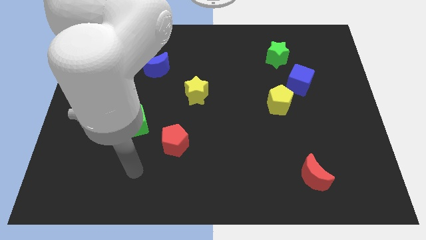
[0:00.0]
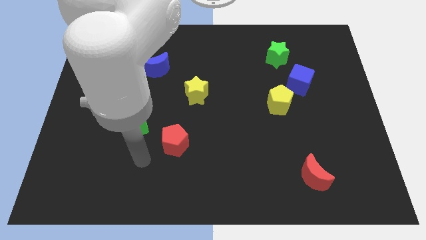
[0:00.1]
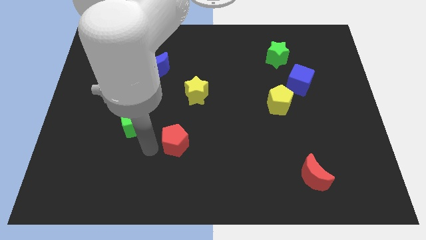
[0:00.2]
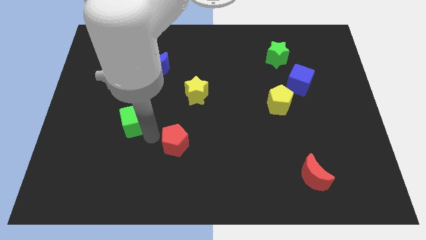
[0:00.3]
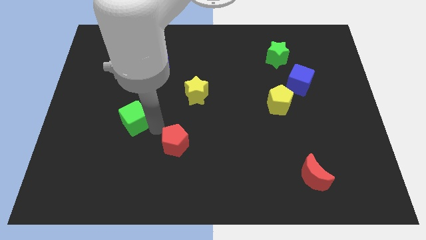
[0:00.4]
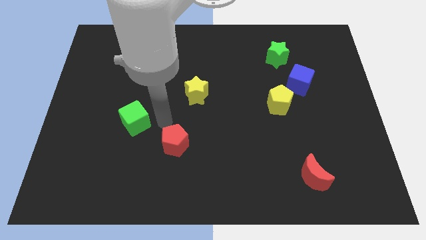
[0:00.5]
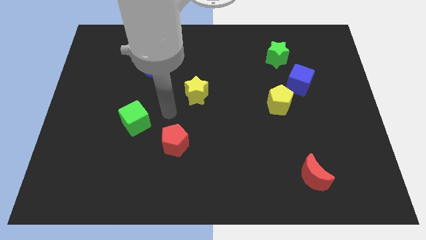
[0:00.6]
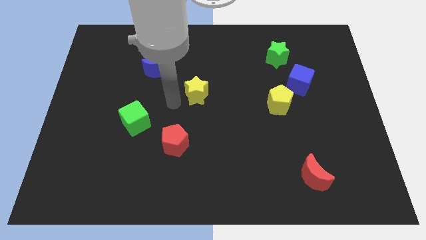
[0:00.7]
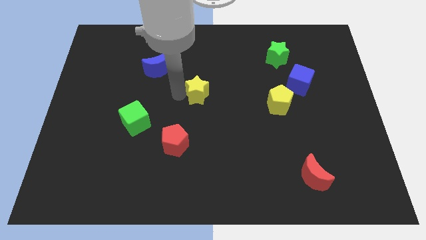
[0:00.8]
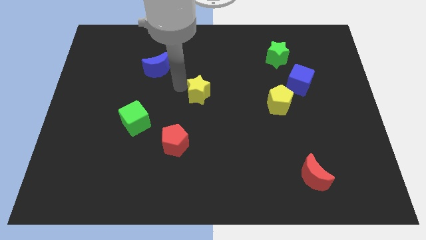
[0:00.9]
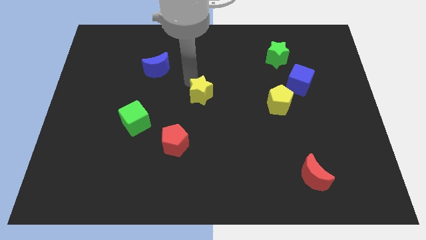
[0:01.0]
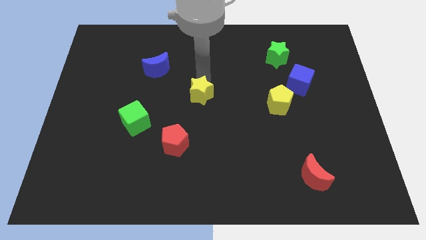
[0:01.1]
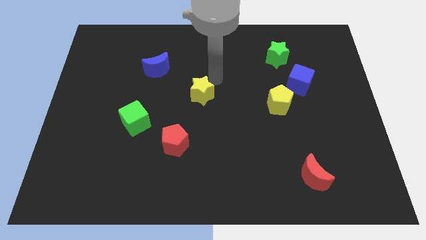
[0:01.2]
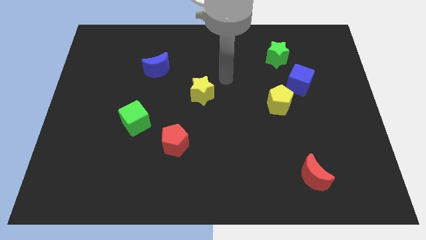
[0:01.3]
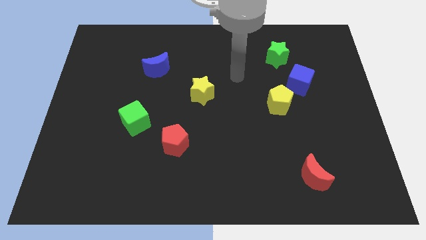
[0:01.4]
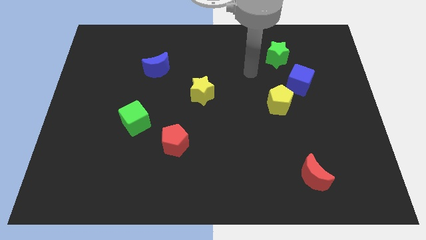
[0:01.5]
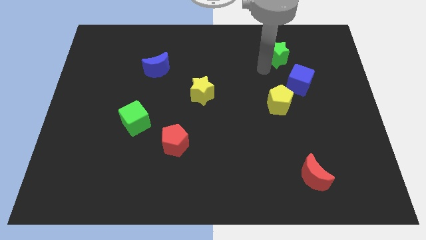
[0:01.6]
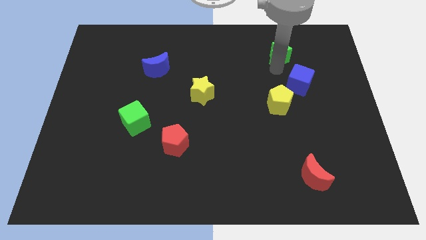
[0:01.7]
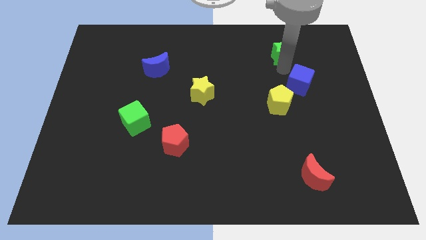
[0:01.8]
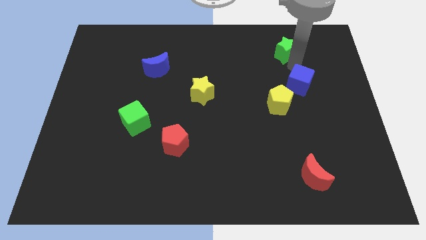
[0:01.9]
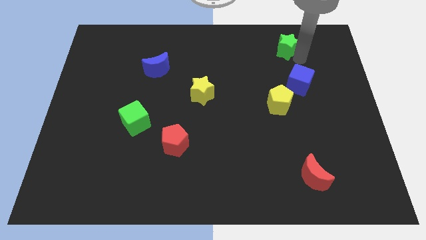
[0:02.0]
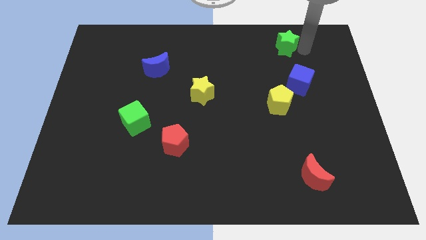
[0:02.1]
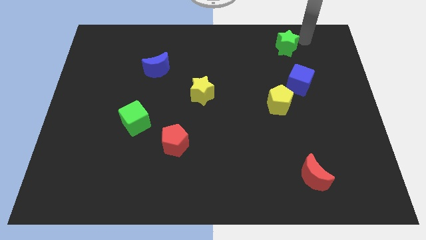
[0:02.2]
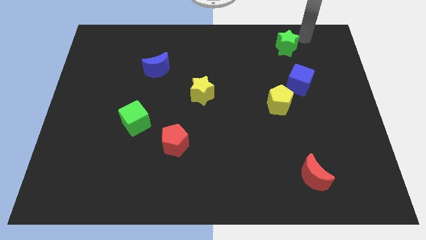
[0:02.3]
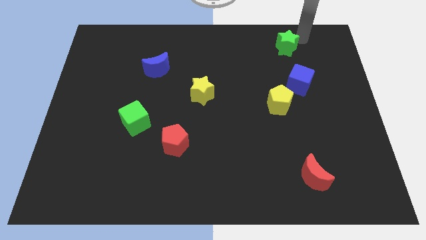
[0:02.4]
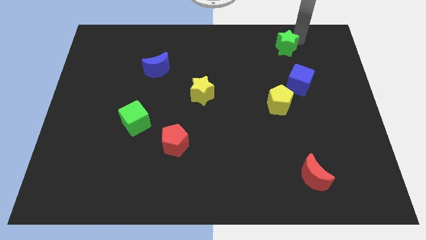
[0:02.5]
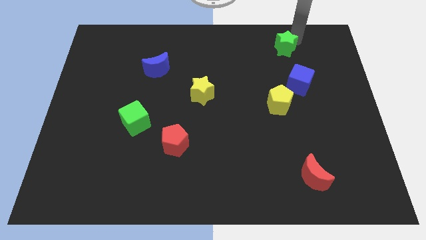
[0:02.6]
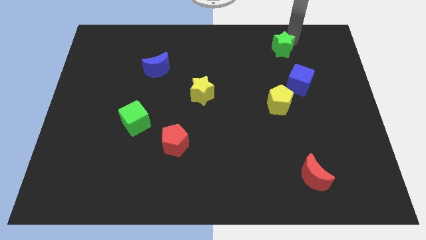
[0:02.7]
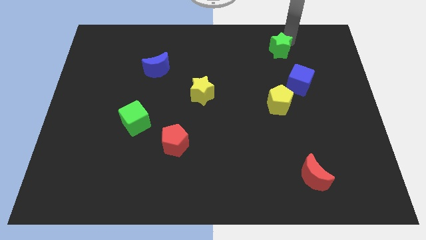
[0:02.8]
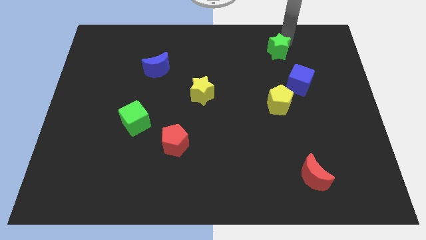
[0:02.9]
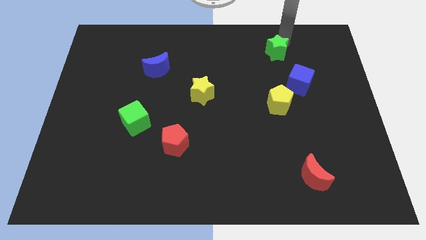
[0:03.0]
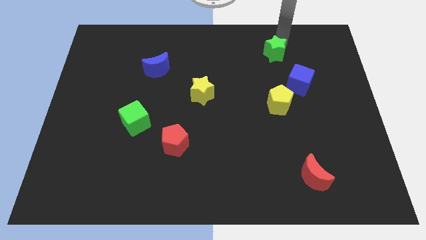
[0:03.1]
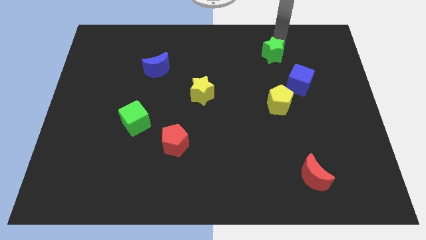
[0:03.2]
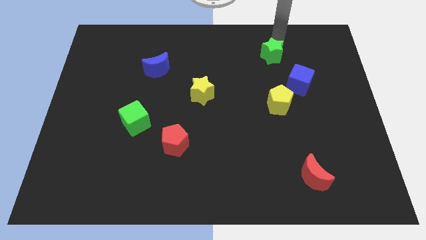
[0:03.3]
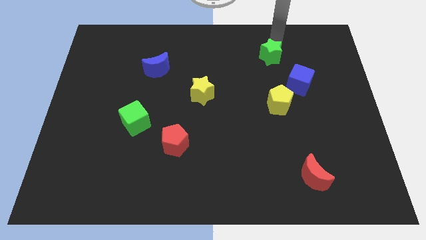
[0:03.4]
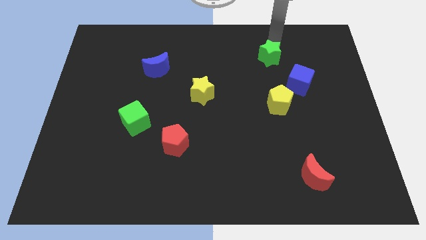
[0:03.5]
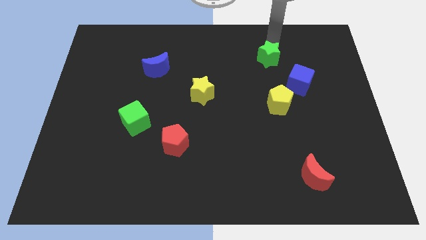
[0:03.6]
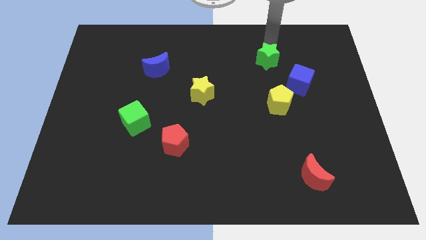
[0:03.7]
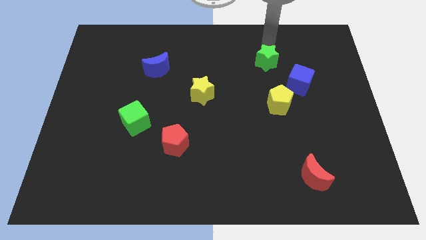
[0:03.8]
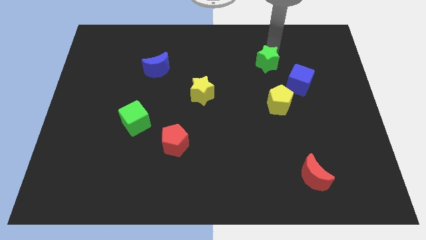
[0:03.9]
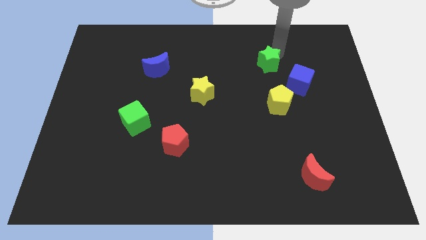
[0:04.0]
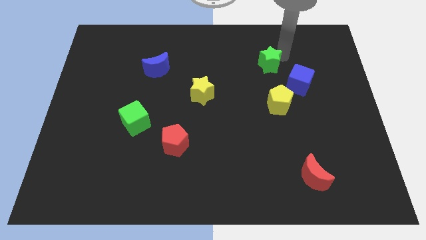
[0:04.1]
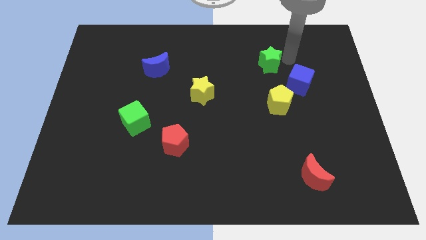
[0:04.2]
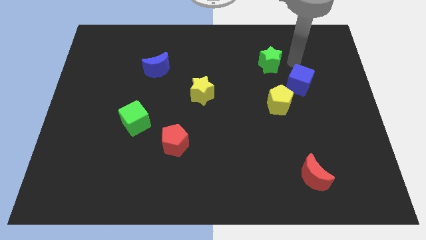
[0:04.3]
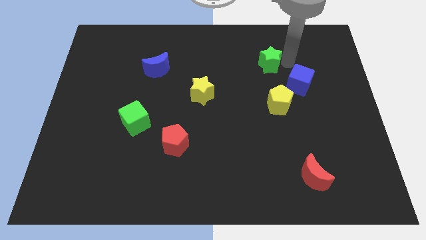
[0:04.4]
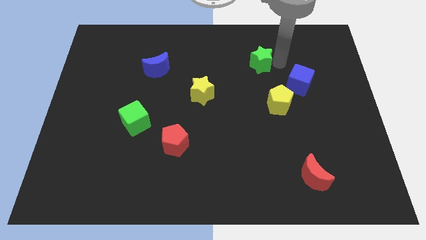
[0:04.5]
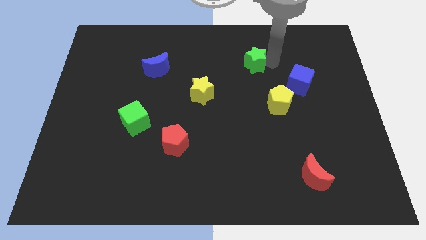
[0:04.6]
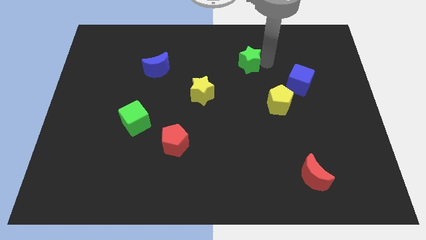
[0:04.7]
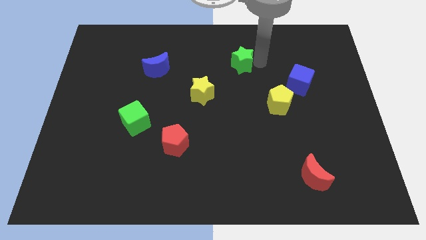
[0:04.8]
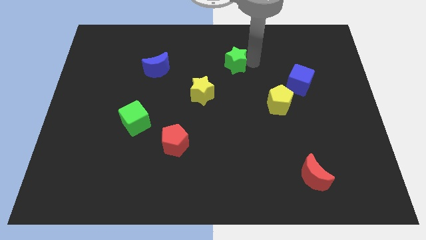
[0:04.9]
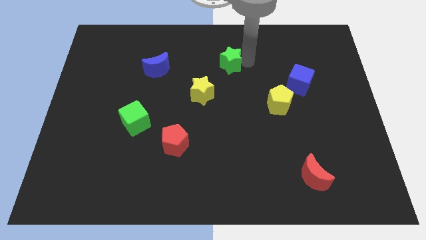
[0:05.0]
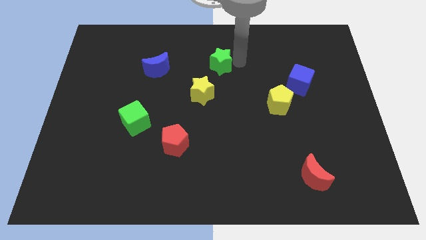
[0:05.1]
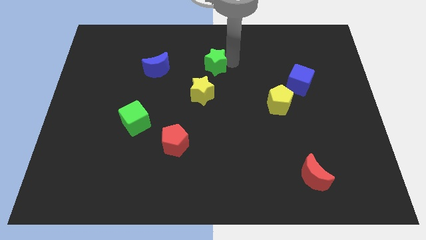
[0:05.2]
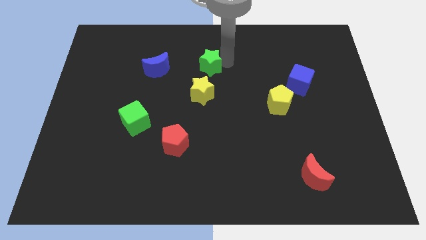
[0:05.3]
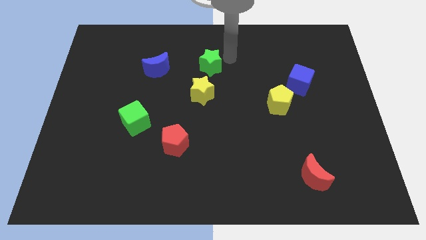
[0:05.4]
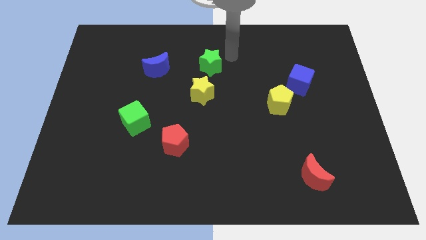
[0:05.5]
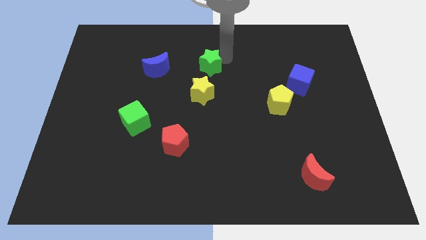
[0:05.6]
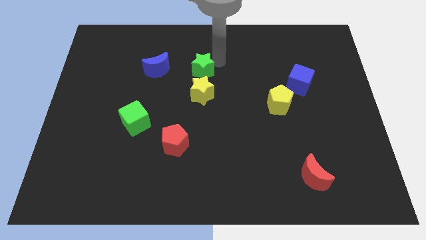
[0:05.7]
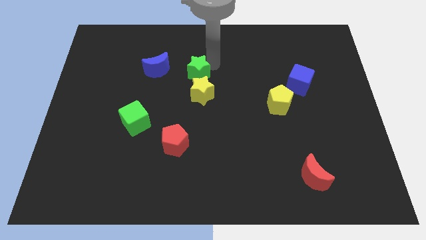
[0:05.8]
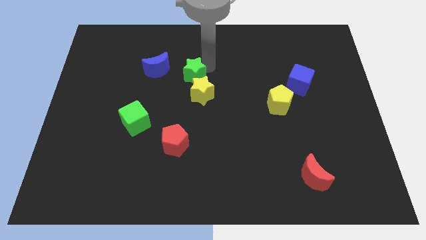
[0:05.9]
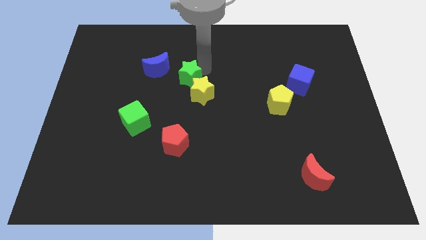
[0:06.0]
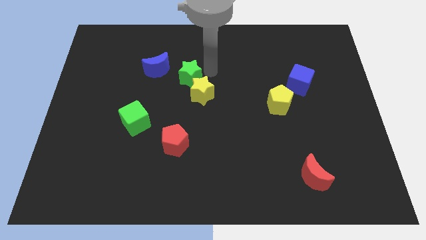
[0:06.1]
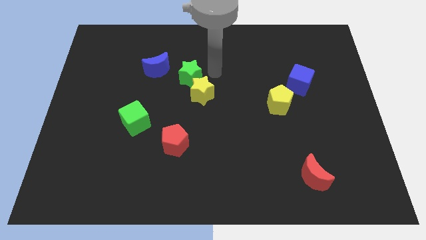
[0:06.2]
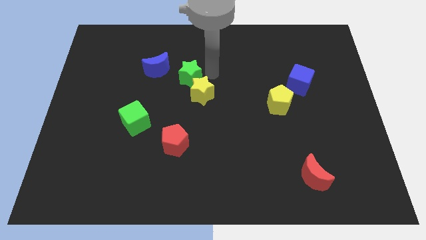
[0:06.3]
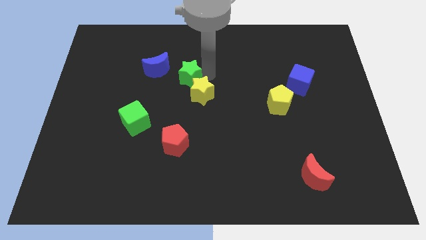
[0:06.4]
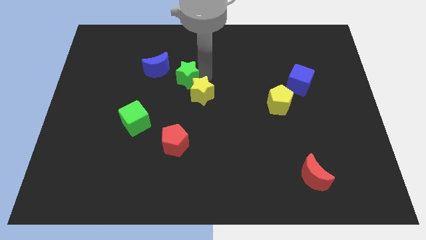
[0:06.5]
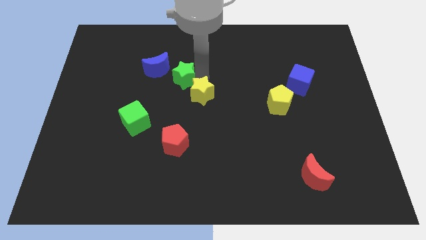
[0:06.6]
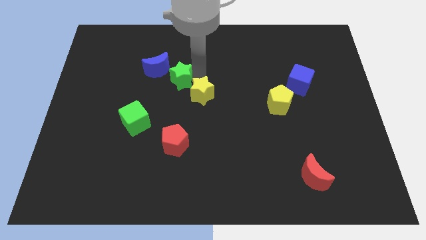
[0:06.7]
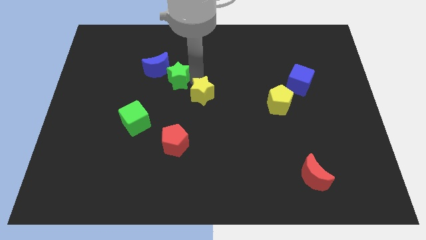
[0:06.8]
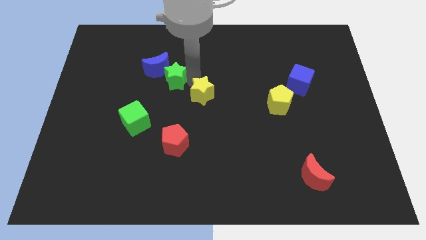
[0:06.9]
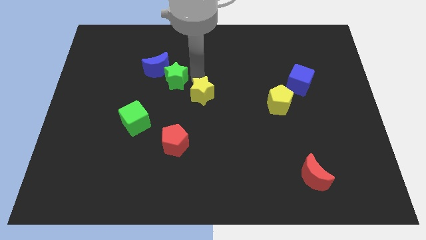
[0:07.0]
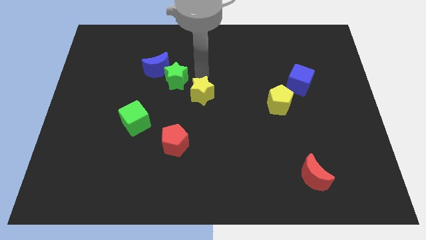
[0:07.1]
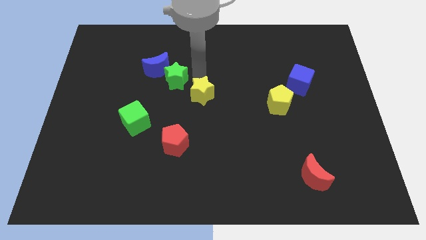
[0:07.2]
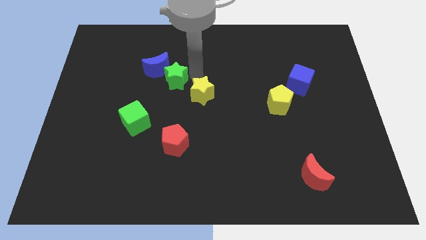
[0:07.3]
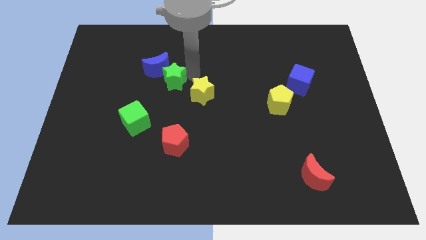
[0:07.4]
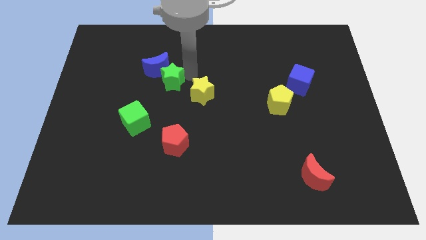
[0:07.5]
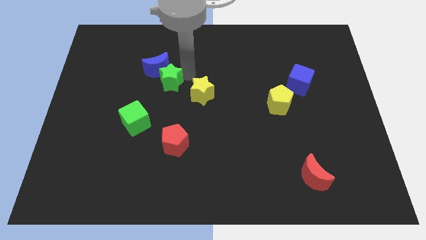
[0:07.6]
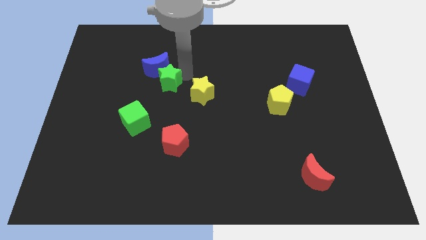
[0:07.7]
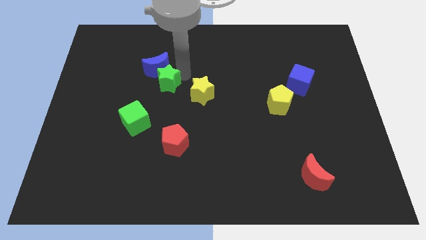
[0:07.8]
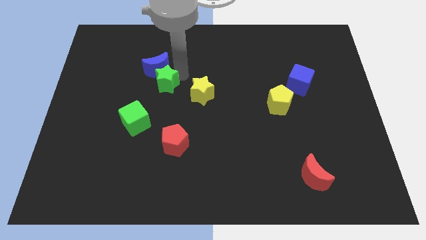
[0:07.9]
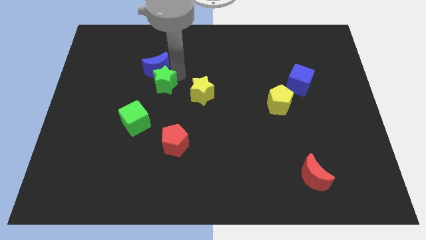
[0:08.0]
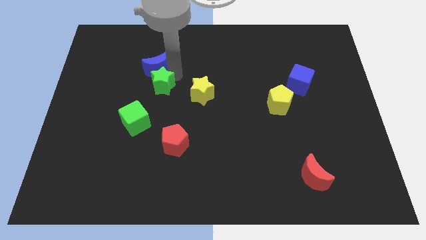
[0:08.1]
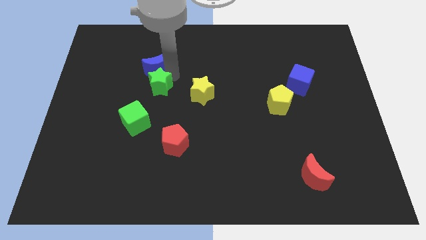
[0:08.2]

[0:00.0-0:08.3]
slide the green star to the top side of the green cube
